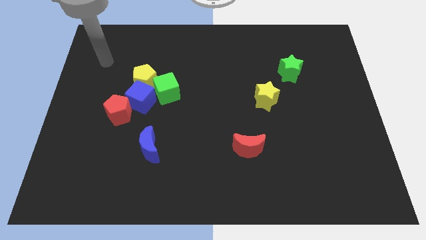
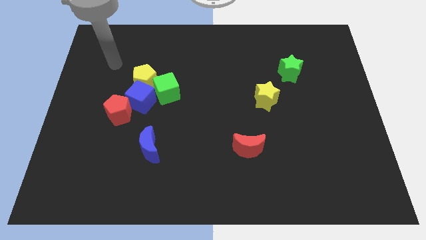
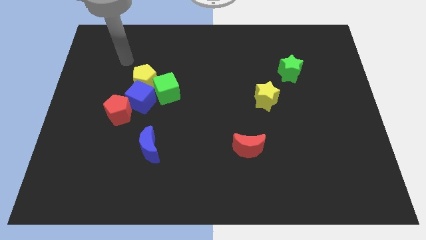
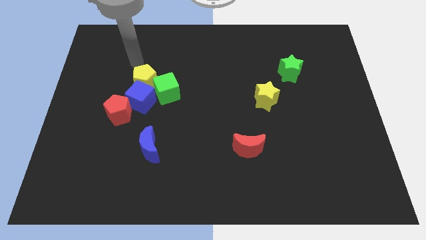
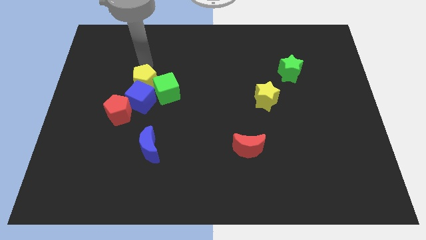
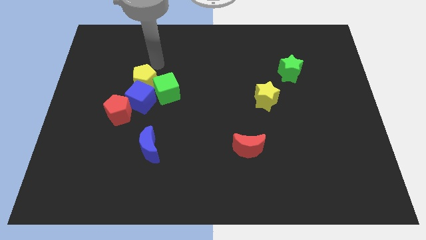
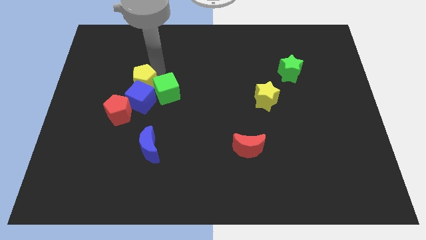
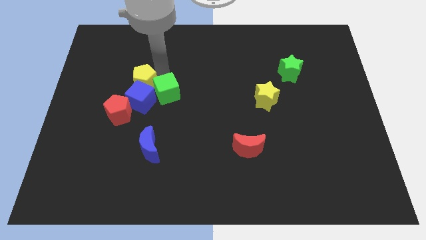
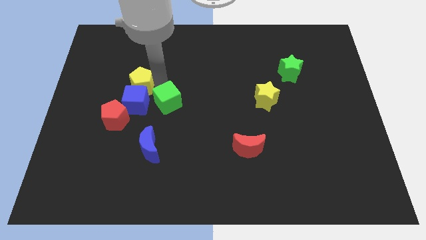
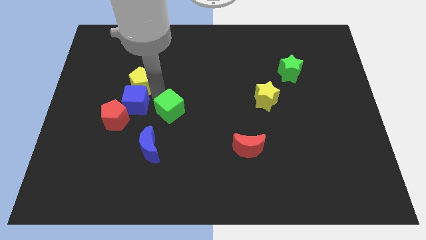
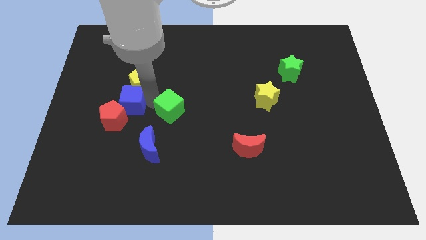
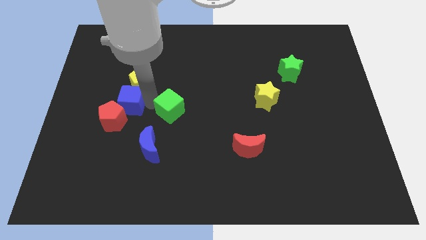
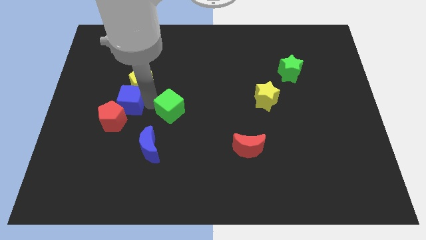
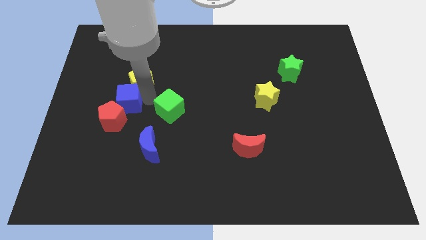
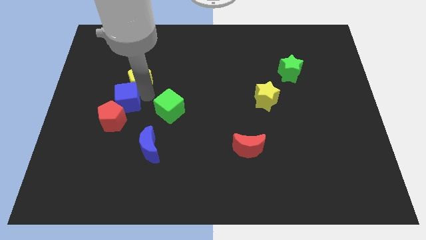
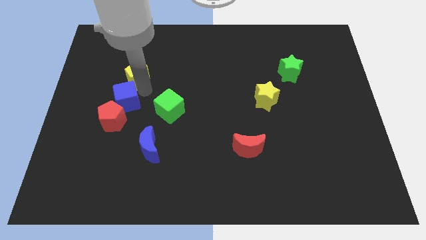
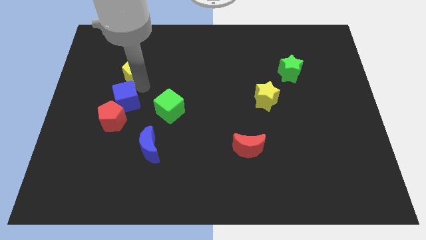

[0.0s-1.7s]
separate the yellow pentagon from the blue cube and green cube

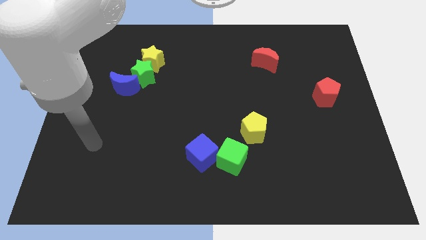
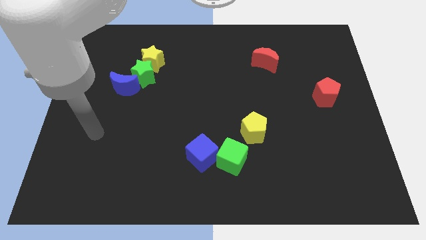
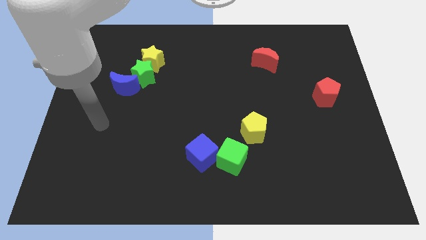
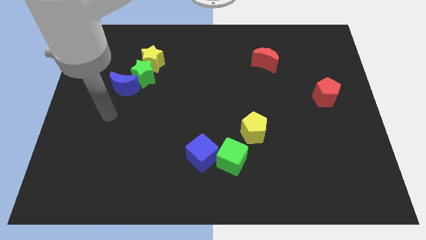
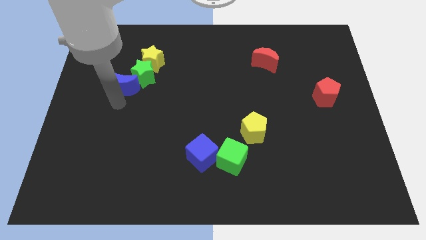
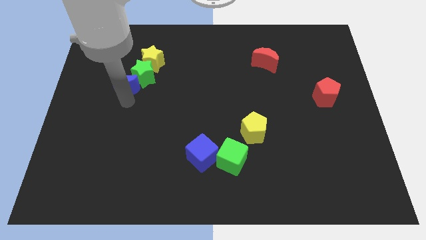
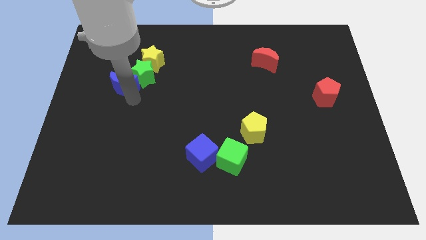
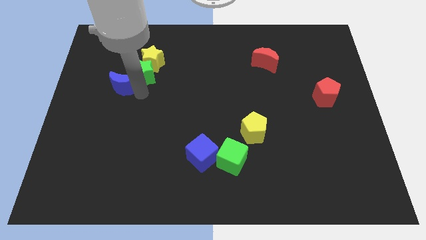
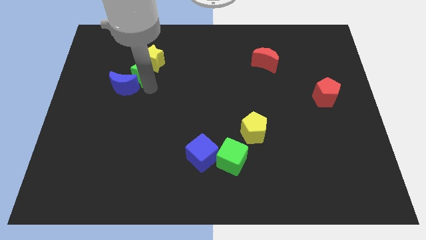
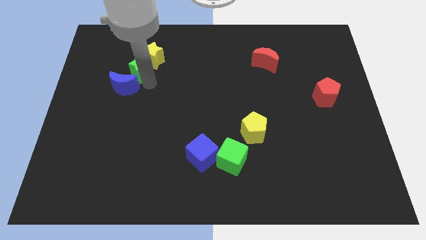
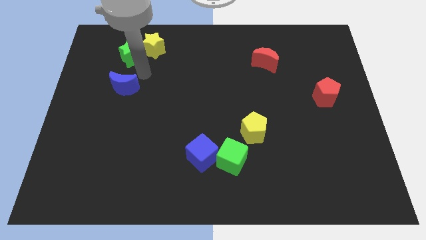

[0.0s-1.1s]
separate the blue moon from the green star

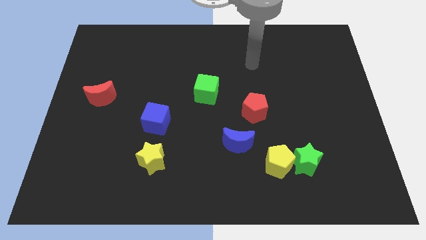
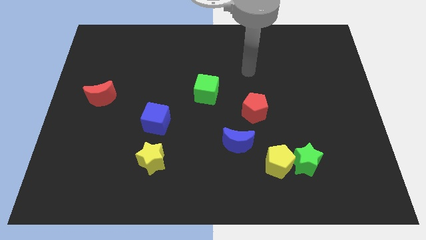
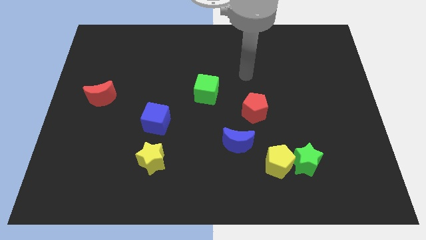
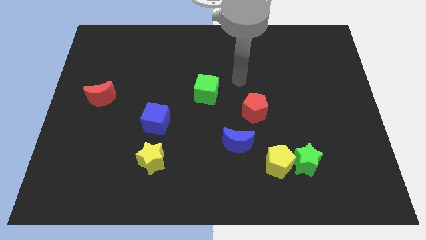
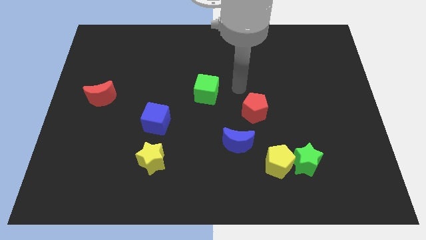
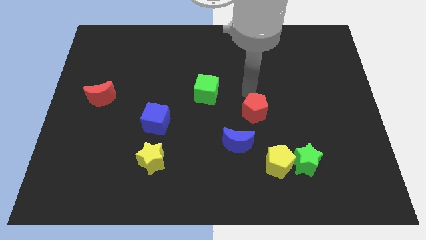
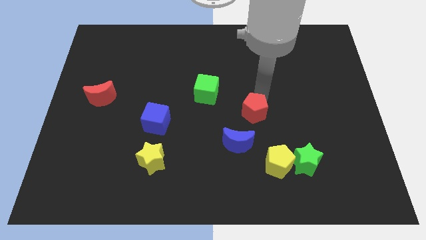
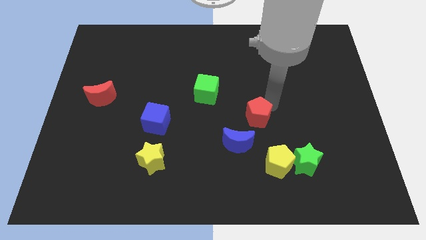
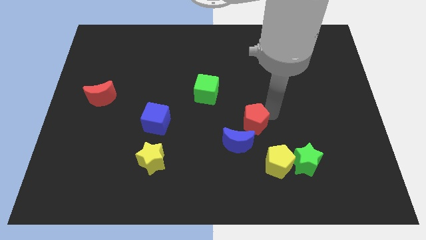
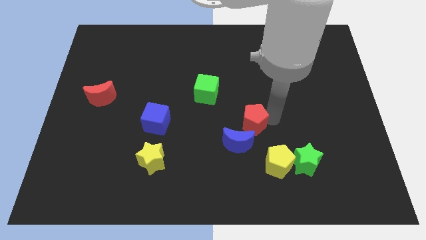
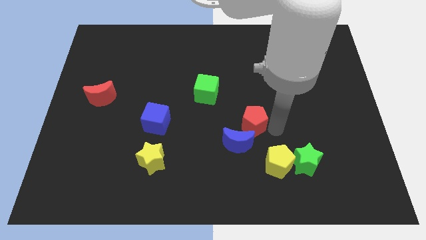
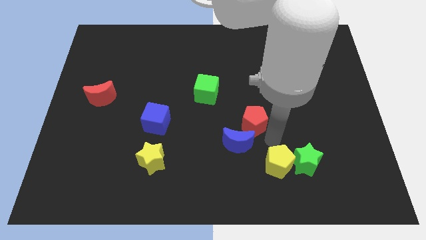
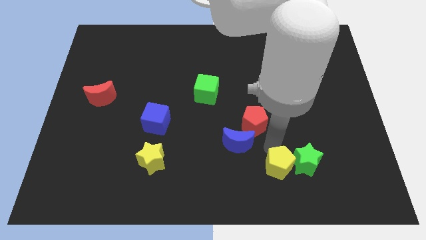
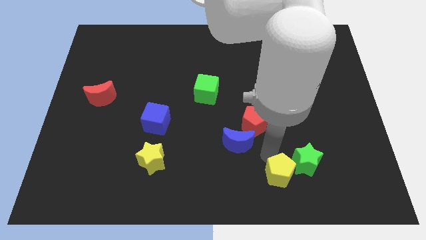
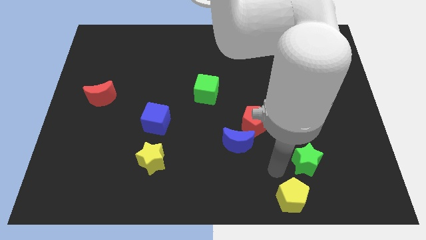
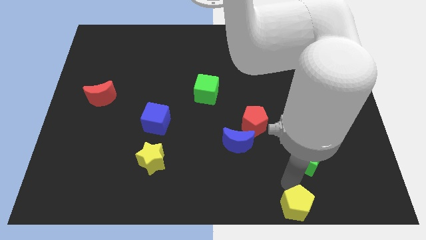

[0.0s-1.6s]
move the green star away from the yellow pentagon

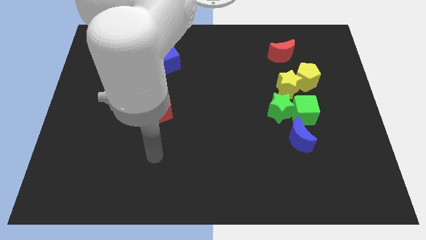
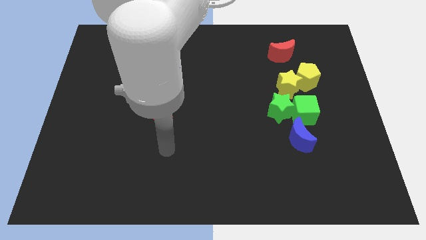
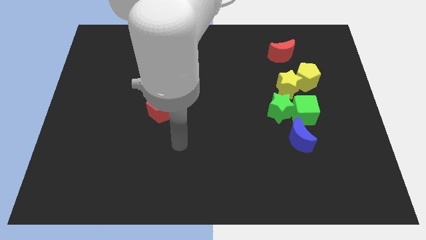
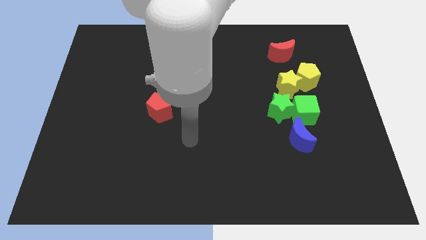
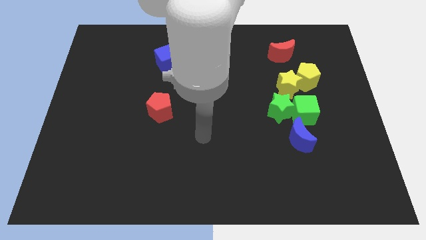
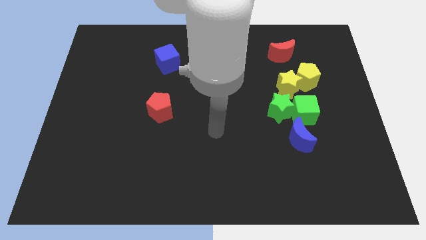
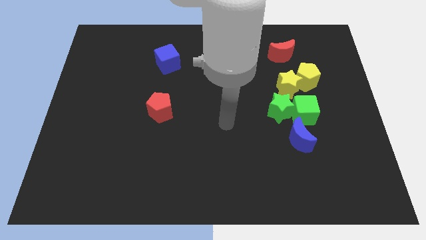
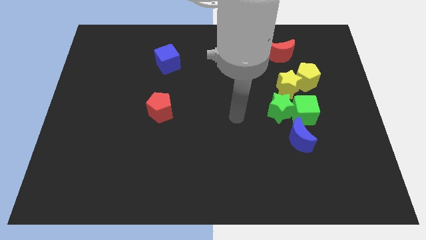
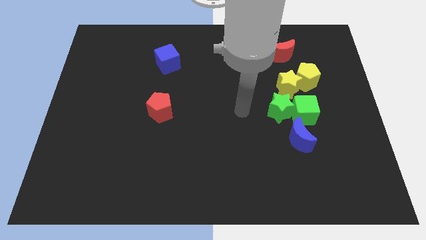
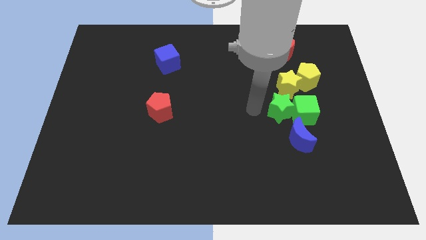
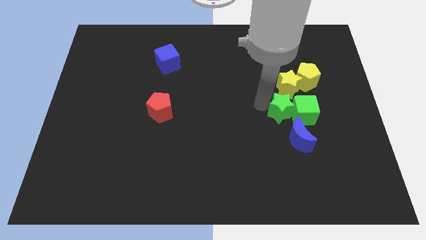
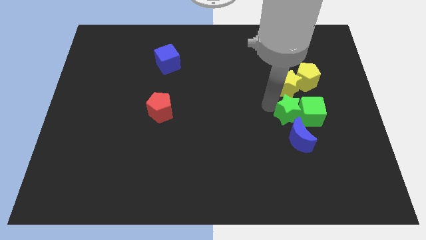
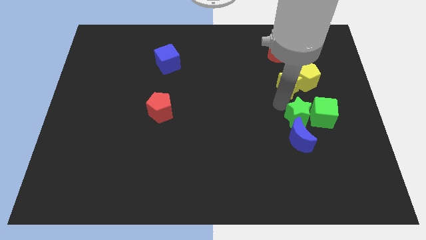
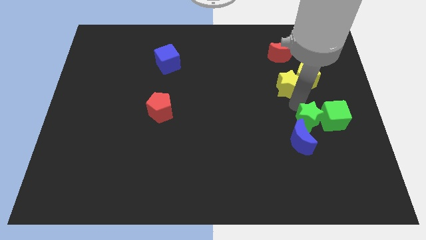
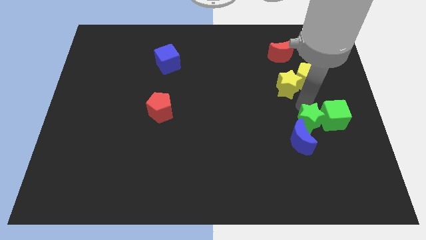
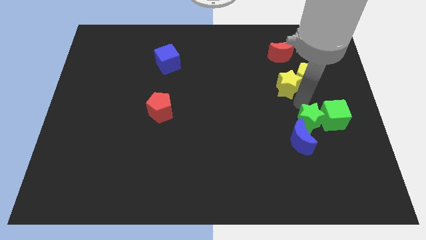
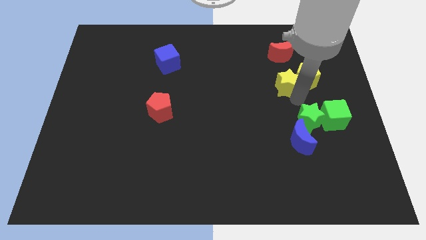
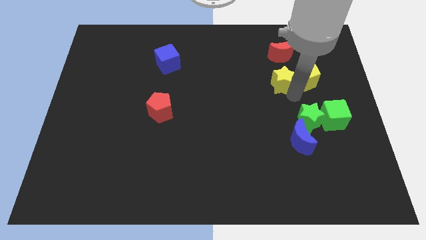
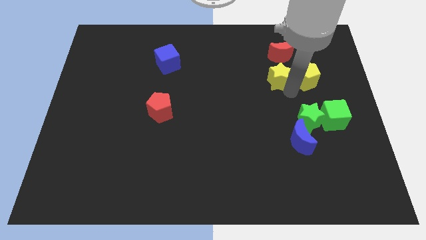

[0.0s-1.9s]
move the yellow star away from the yellow pentagon, green star, and green cube

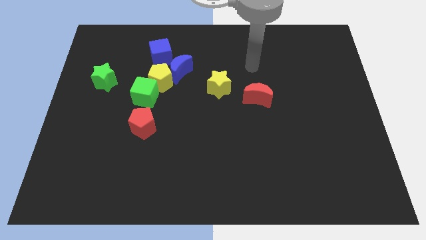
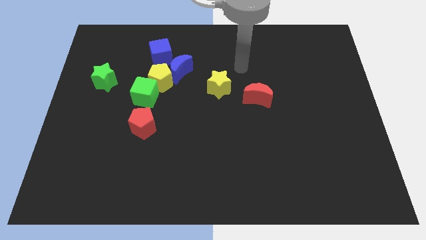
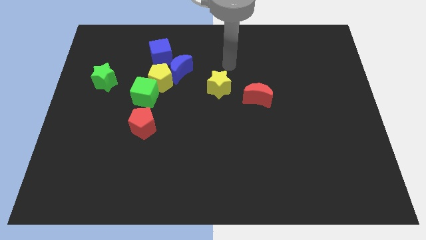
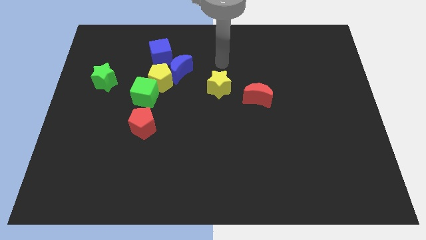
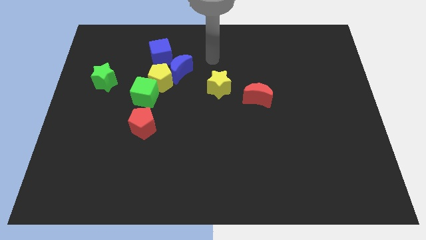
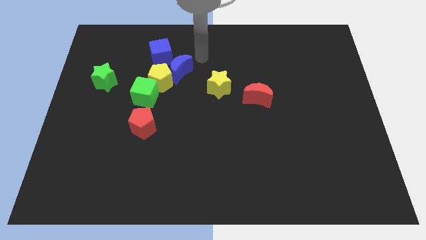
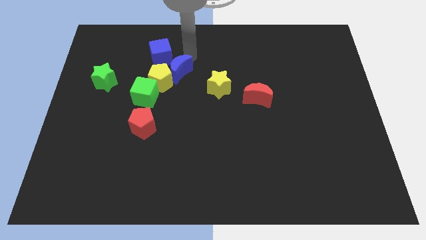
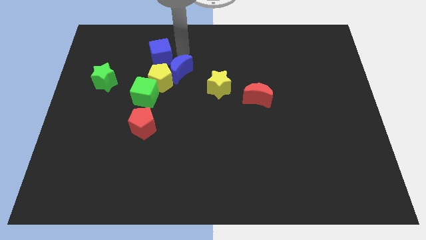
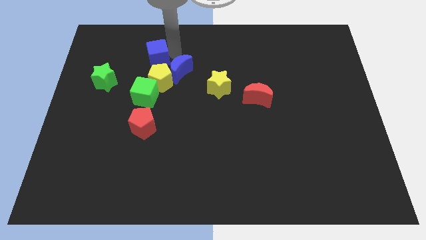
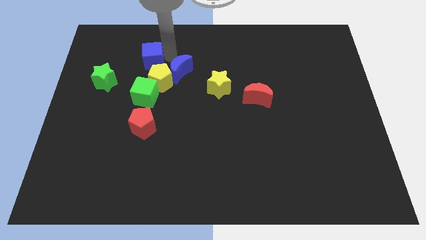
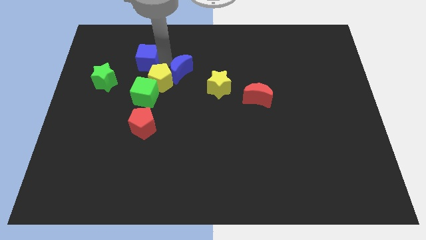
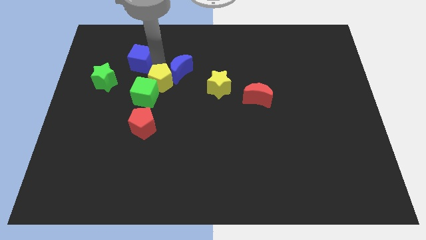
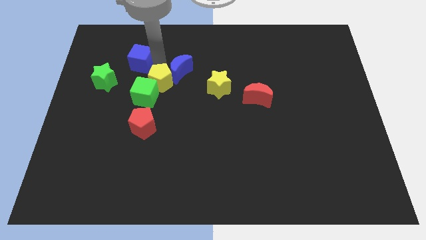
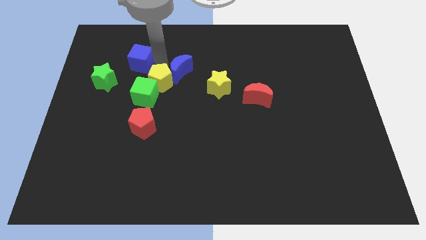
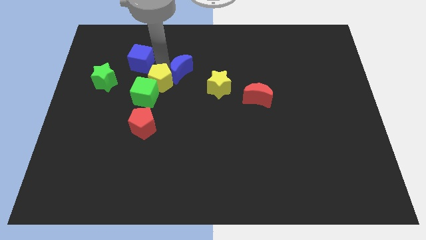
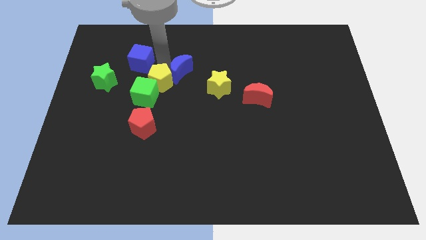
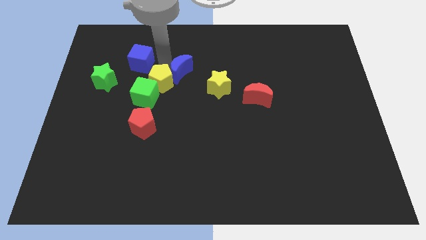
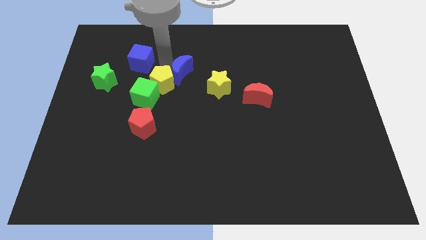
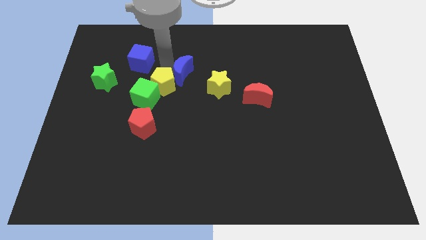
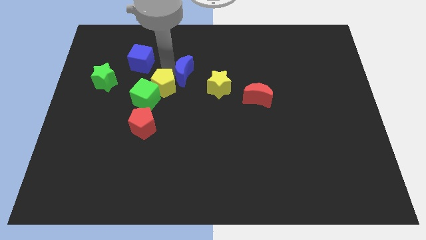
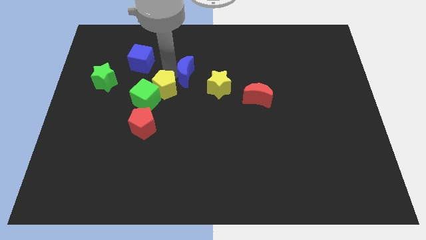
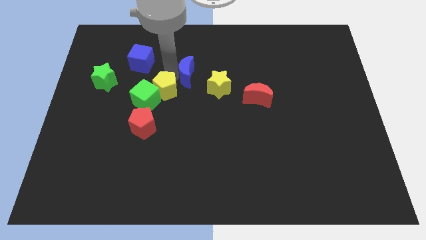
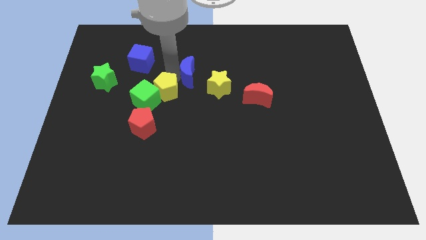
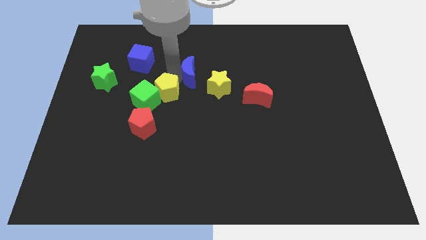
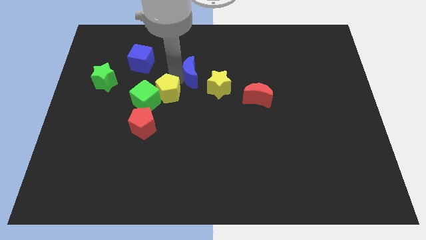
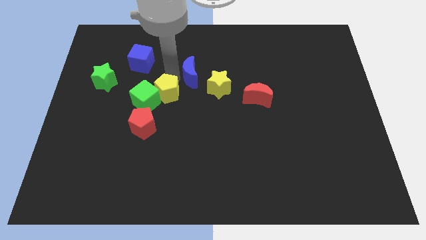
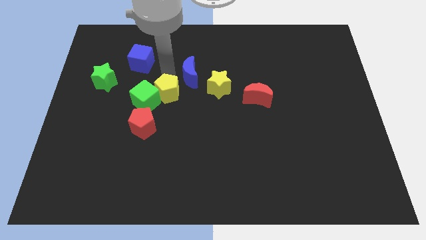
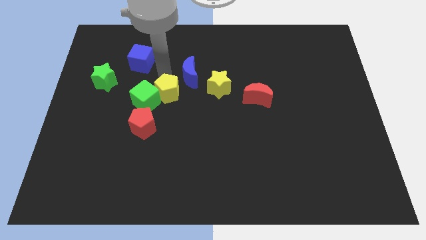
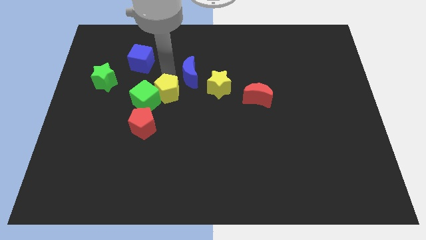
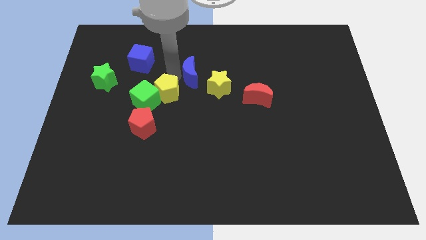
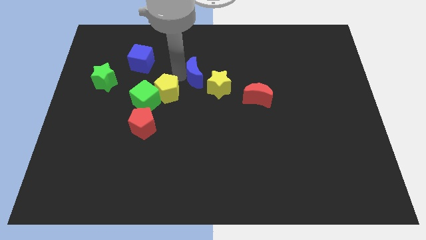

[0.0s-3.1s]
separate the blue moon from the yellow pentagon and blue cube
